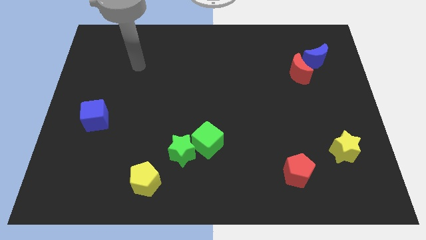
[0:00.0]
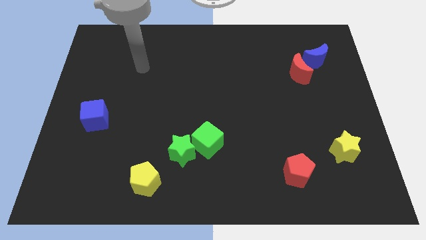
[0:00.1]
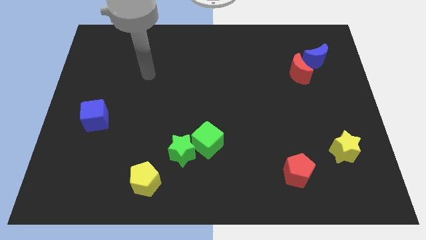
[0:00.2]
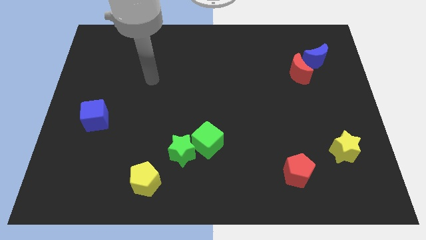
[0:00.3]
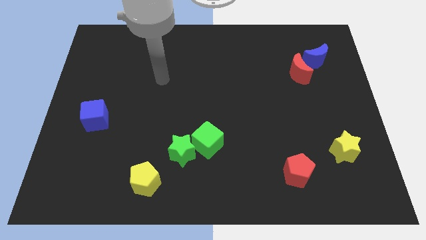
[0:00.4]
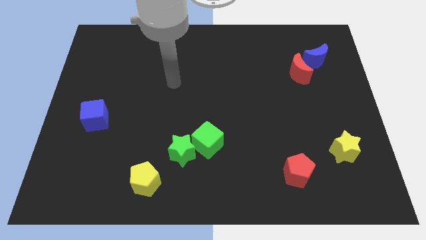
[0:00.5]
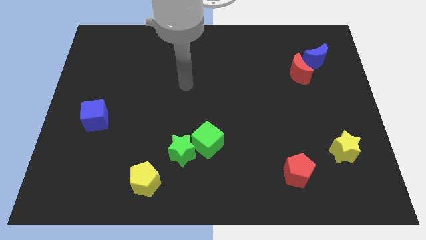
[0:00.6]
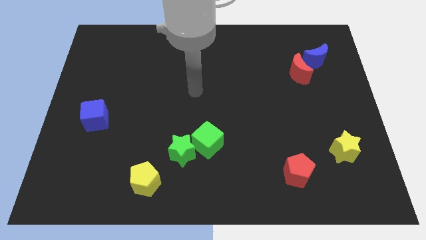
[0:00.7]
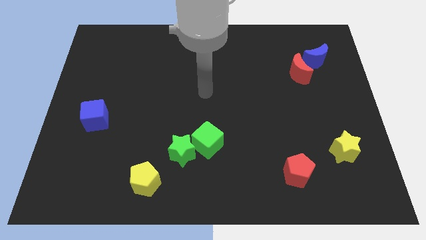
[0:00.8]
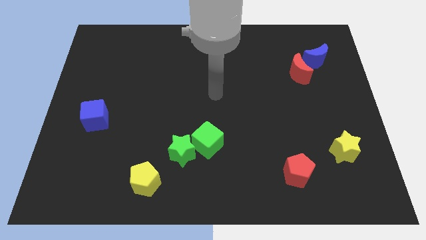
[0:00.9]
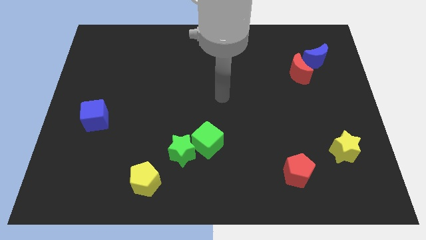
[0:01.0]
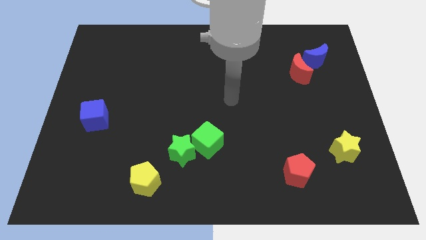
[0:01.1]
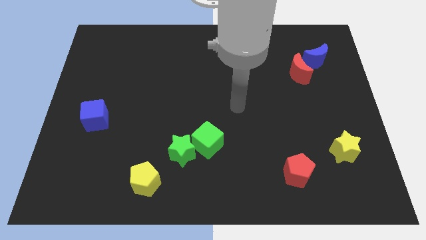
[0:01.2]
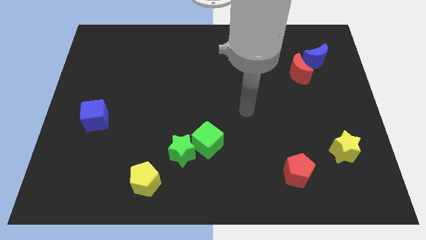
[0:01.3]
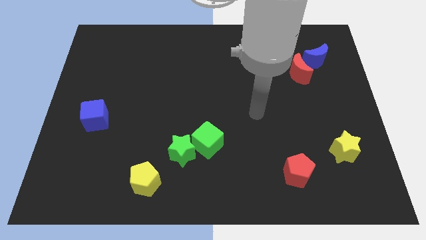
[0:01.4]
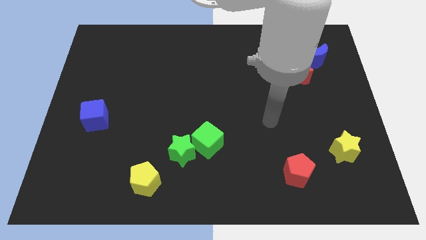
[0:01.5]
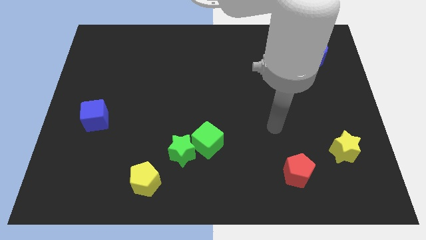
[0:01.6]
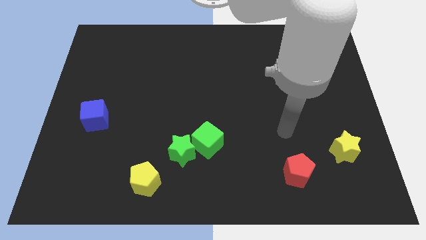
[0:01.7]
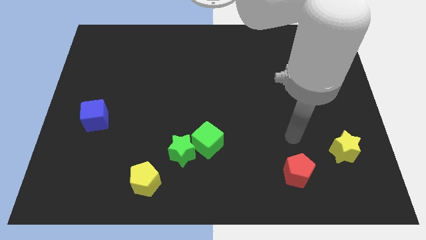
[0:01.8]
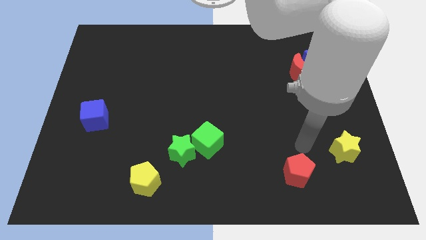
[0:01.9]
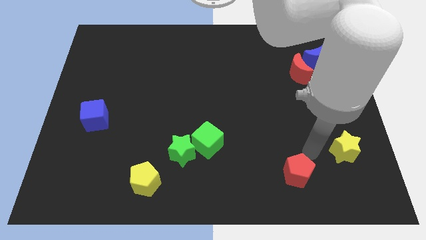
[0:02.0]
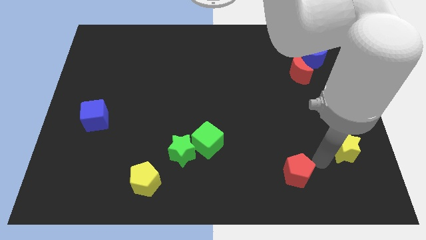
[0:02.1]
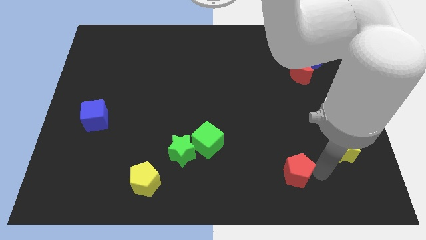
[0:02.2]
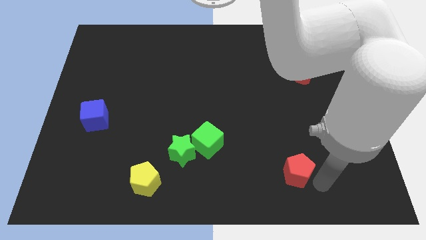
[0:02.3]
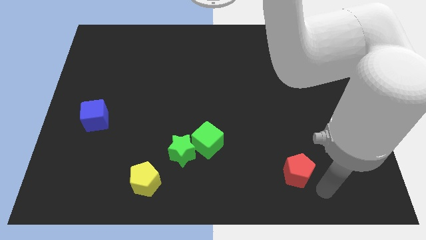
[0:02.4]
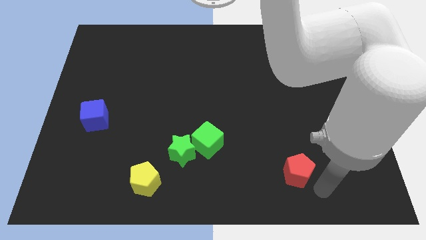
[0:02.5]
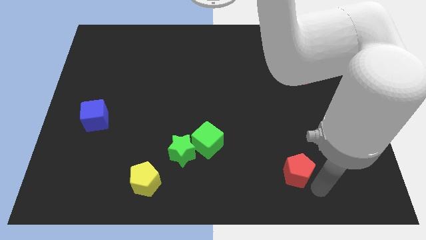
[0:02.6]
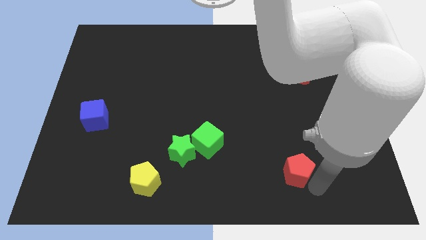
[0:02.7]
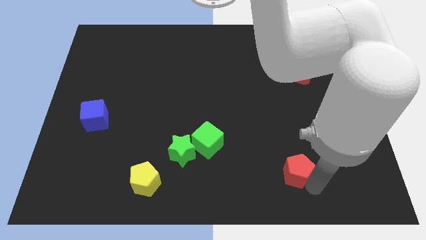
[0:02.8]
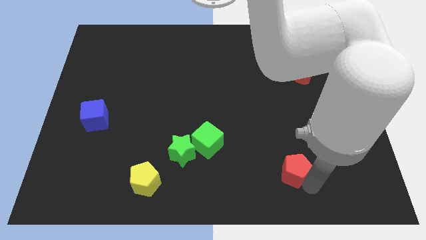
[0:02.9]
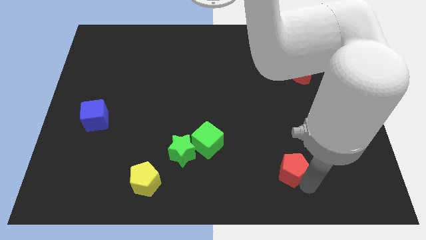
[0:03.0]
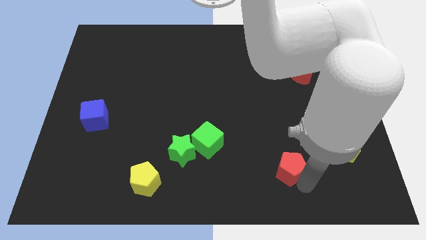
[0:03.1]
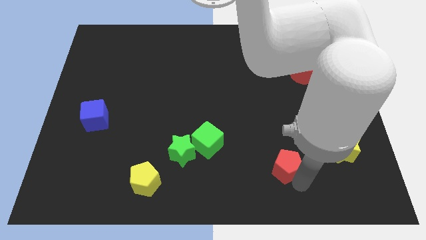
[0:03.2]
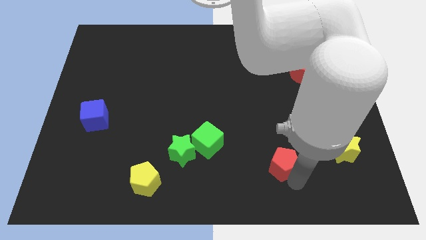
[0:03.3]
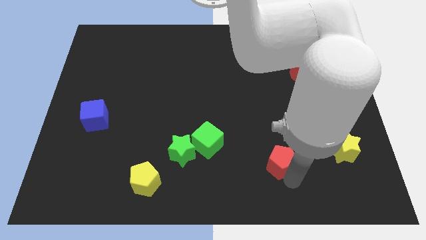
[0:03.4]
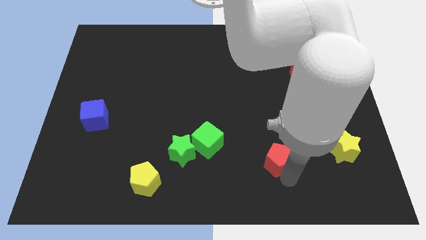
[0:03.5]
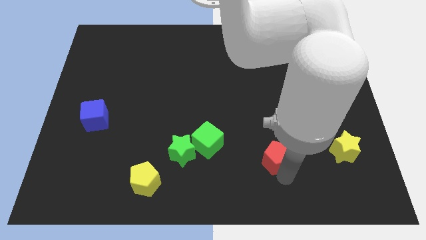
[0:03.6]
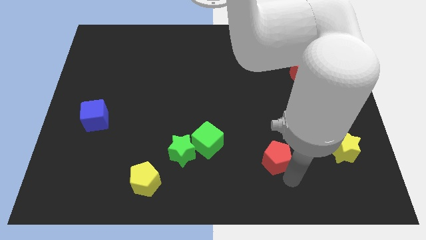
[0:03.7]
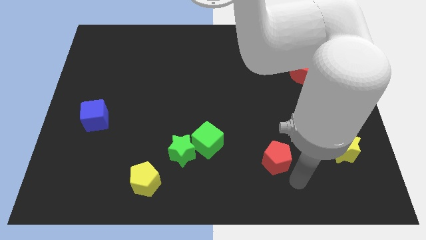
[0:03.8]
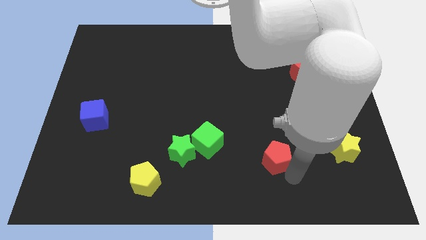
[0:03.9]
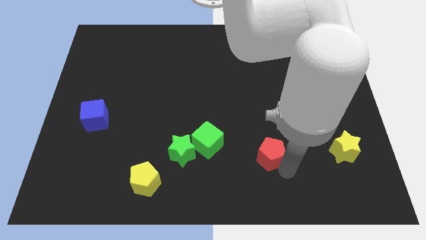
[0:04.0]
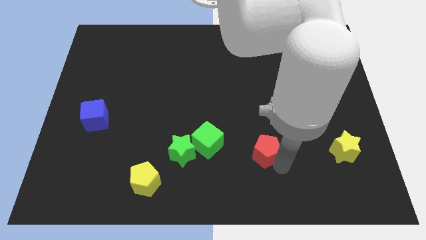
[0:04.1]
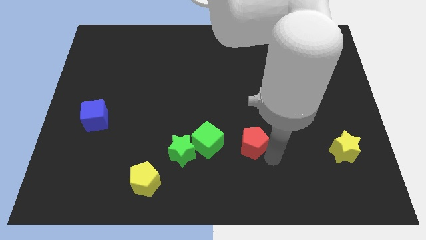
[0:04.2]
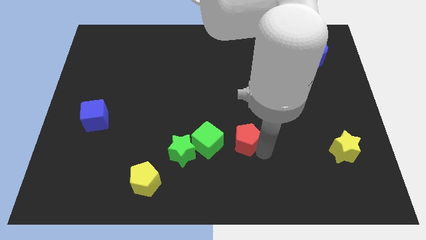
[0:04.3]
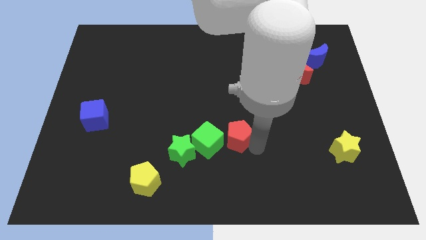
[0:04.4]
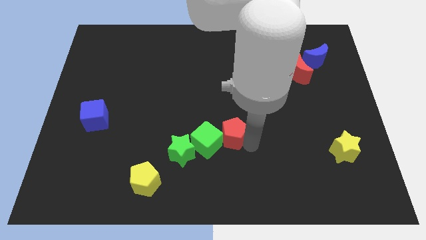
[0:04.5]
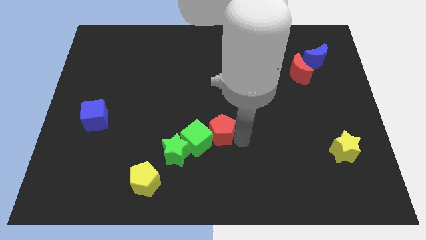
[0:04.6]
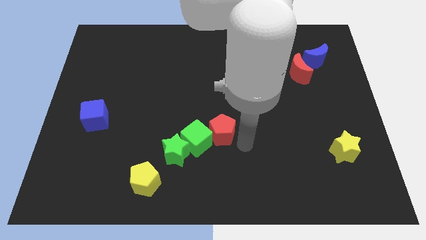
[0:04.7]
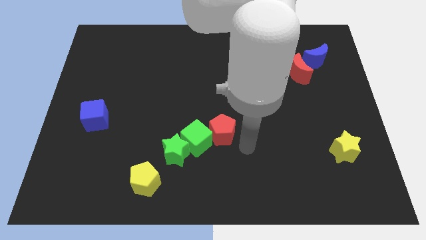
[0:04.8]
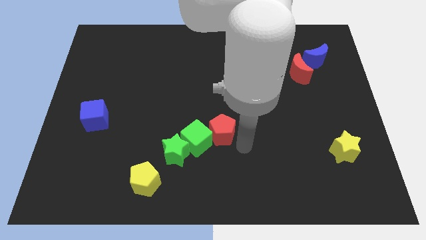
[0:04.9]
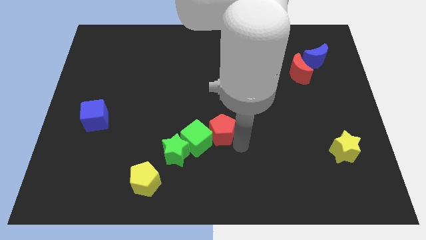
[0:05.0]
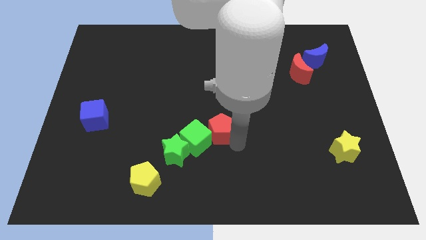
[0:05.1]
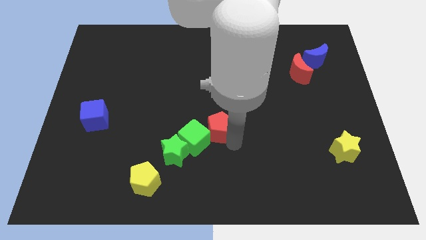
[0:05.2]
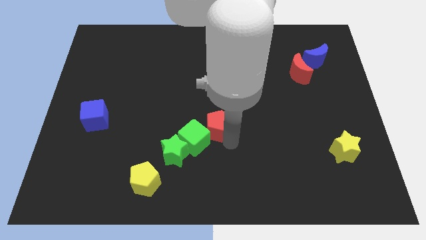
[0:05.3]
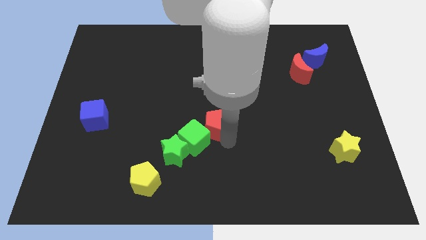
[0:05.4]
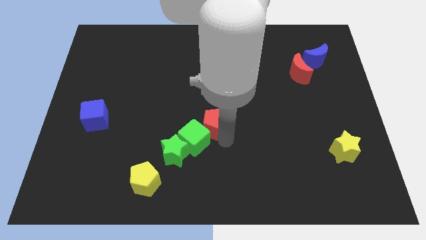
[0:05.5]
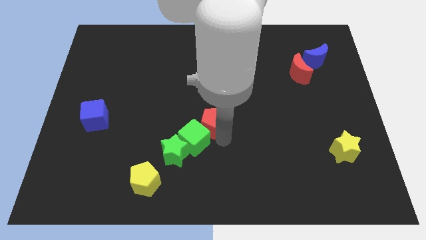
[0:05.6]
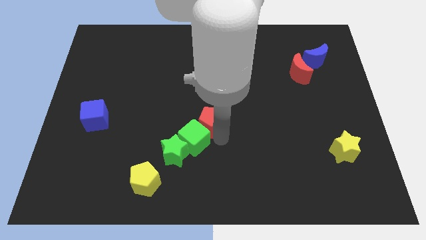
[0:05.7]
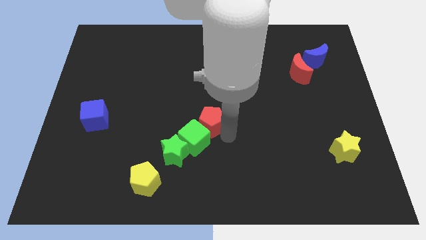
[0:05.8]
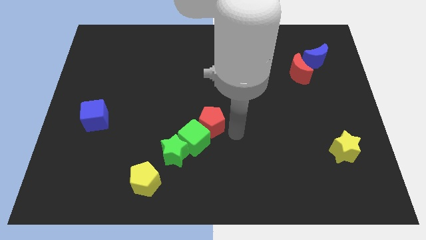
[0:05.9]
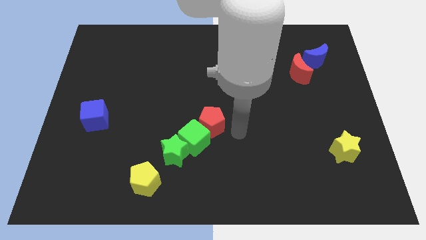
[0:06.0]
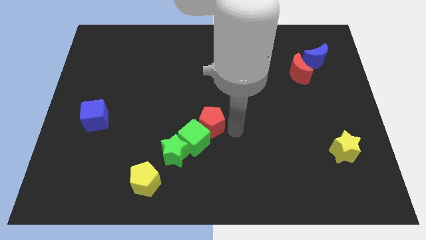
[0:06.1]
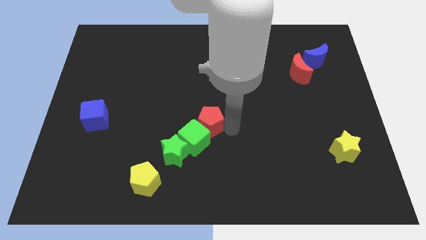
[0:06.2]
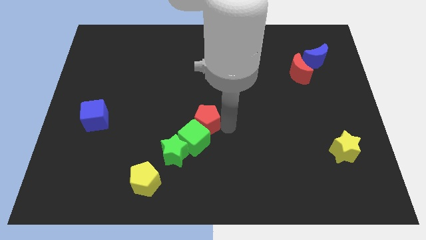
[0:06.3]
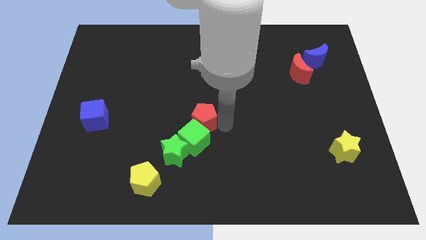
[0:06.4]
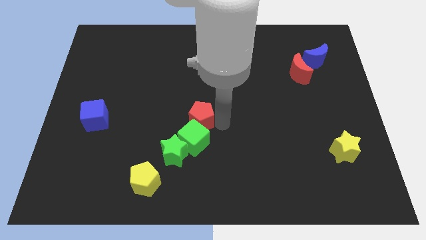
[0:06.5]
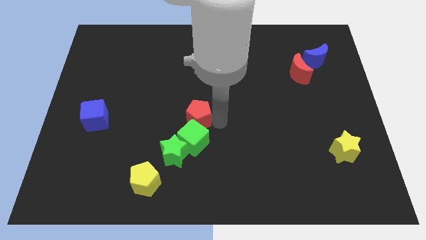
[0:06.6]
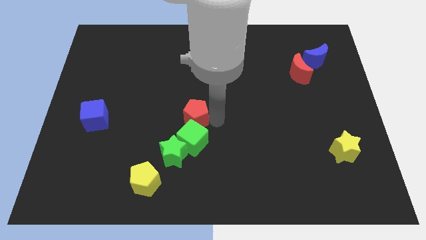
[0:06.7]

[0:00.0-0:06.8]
push the red pentagon above the green star
